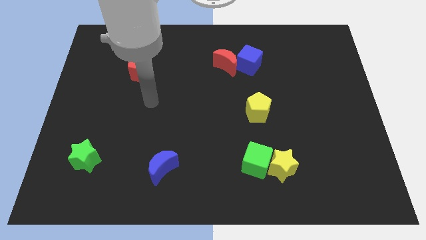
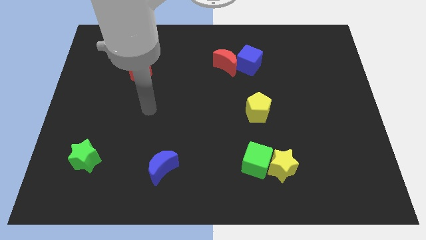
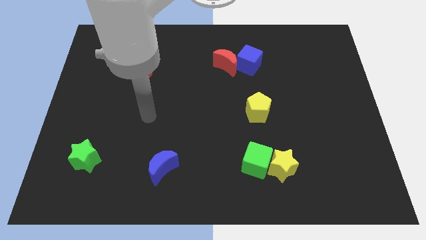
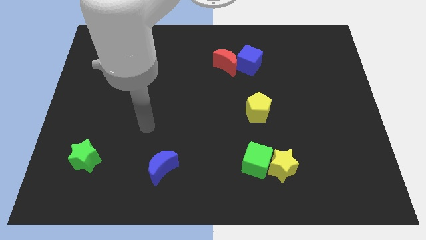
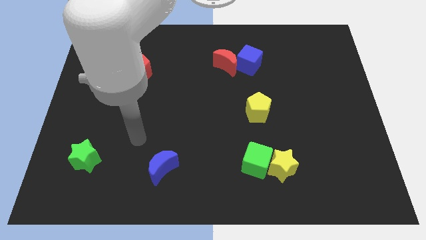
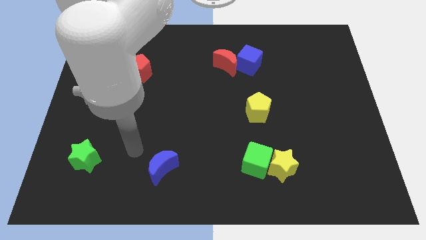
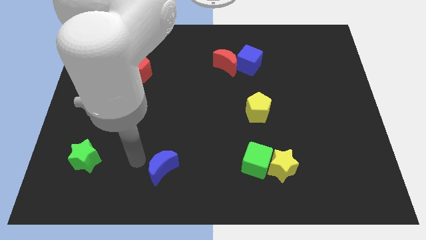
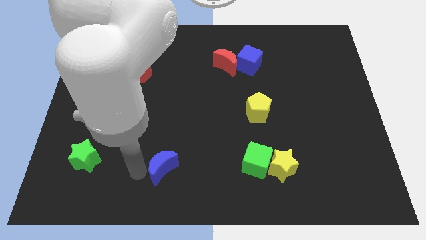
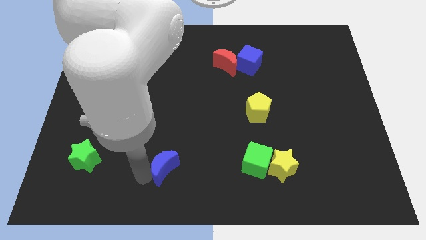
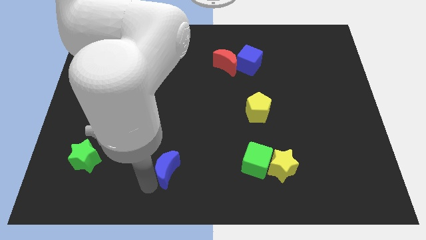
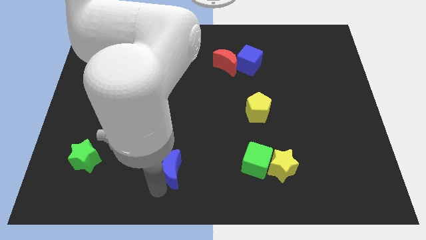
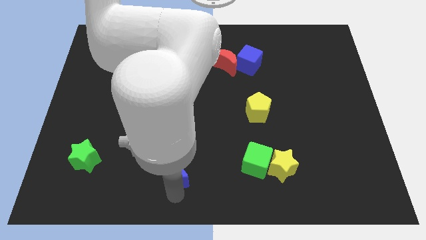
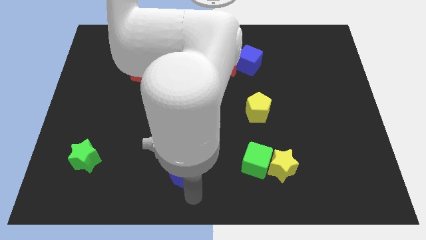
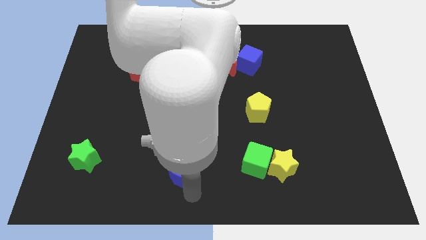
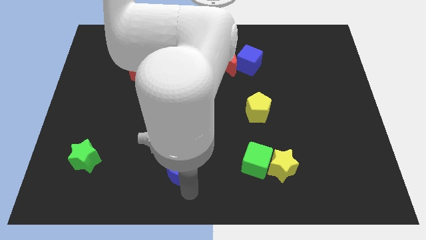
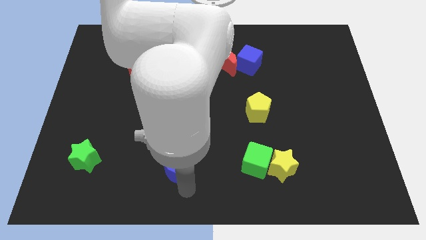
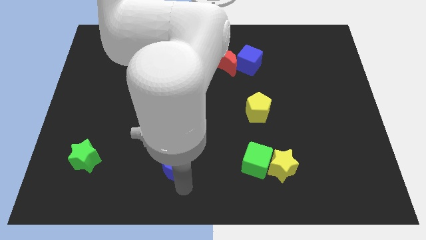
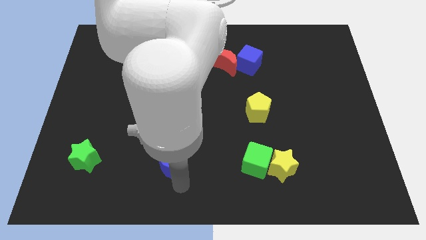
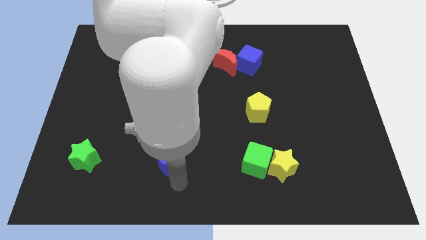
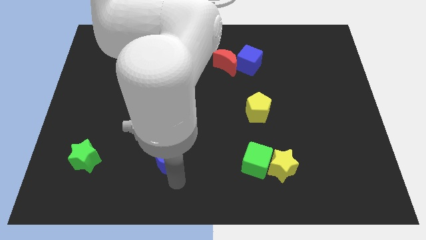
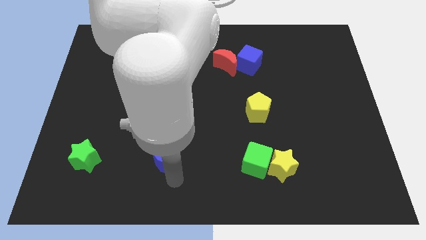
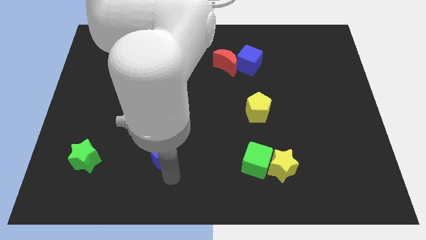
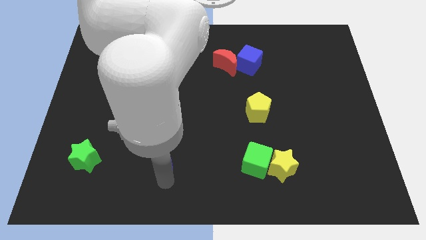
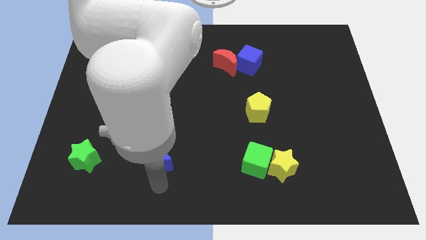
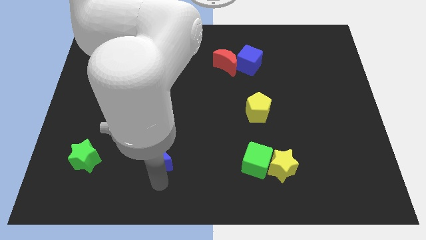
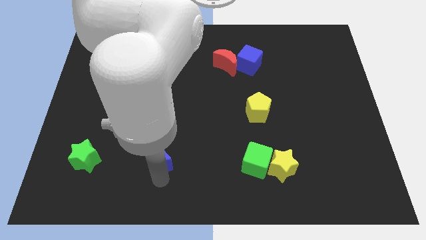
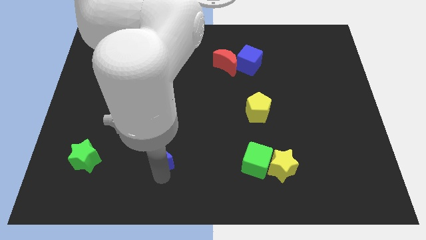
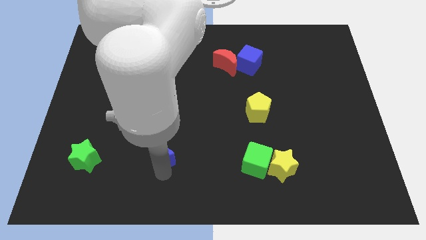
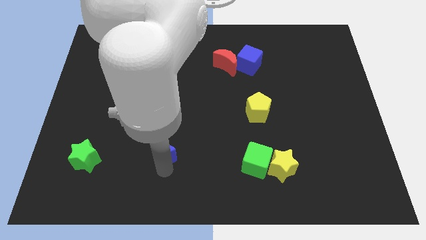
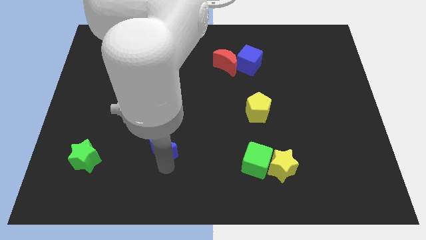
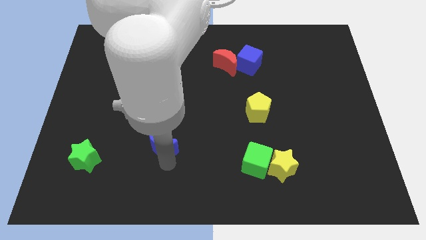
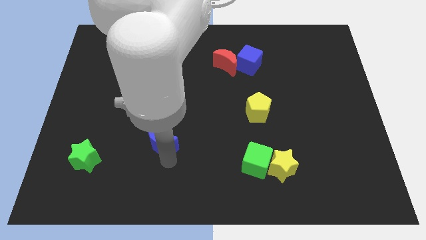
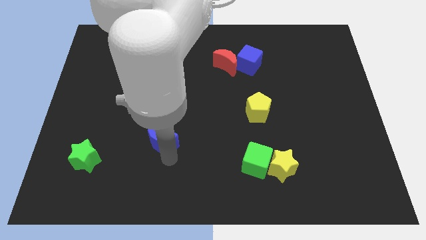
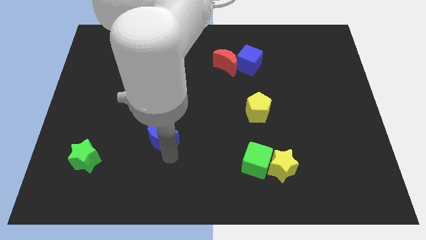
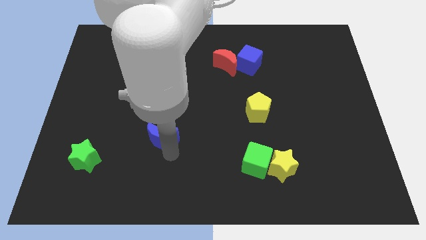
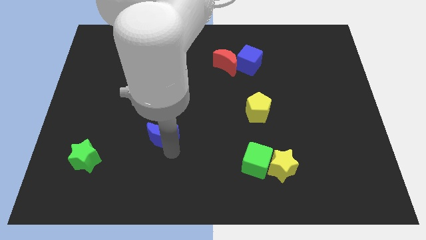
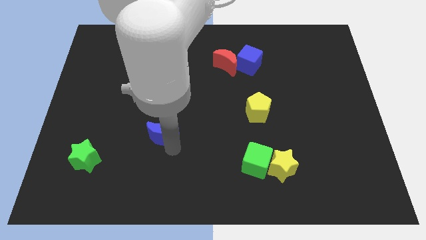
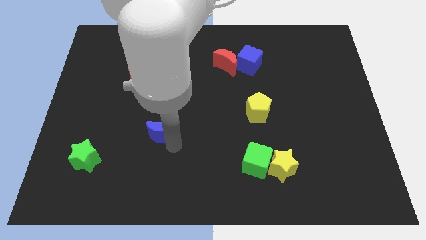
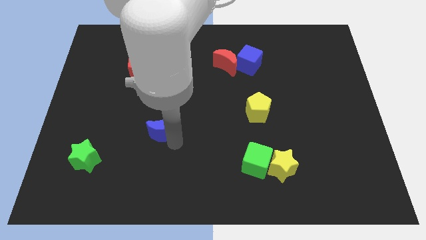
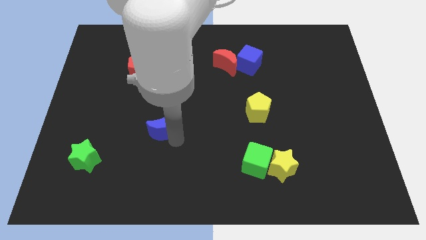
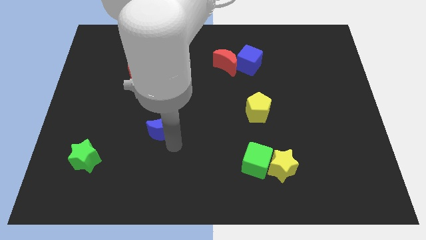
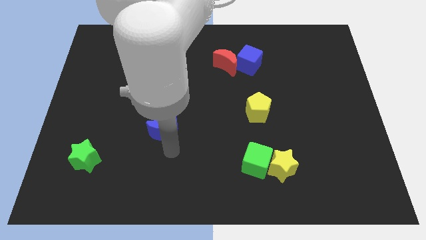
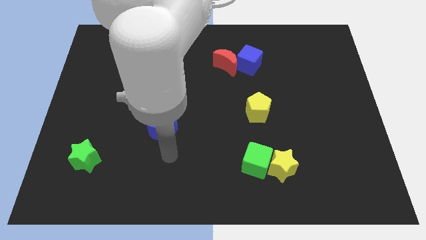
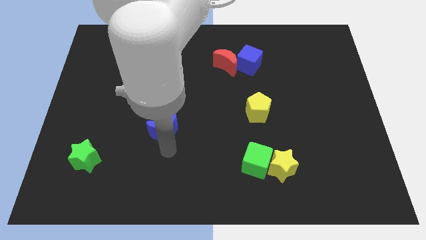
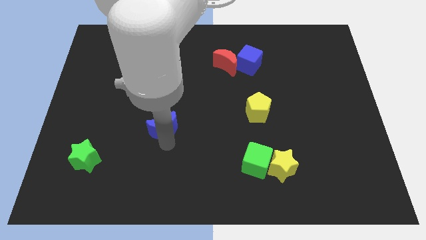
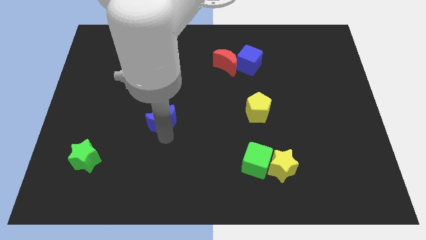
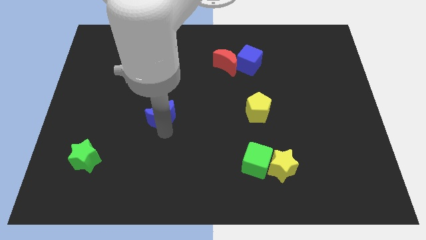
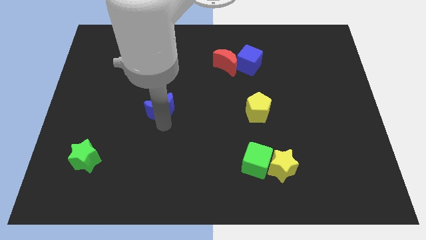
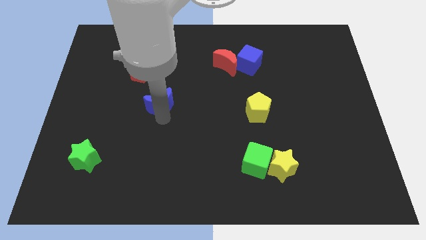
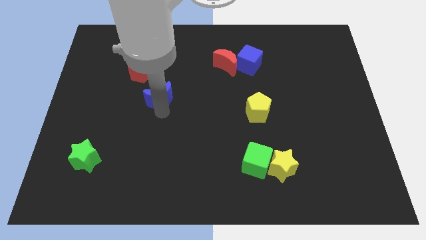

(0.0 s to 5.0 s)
put the blue moon to the bottom right side of the red pentagon

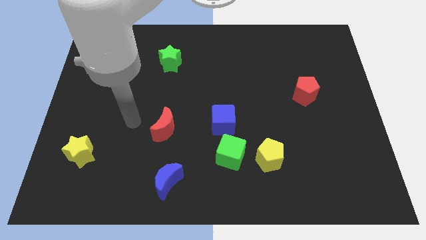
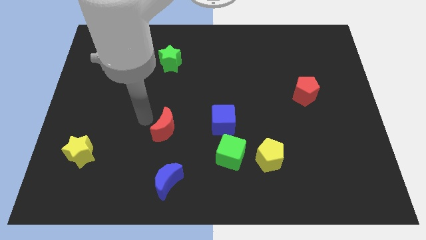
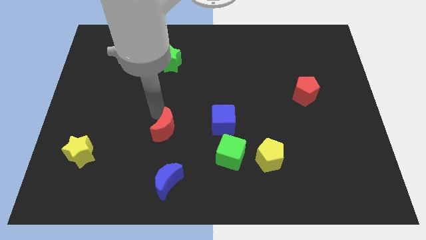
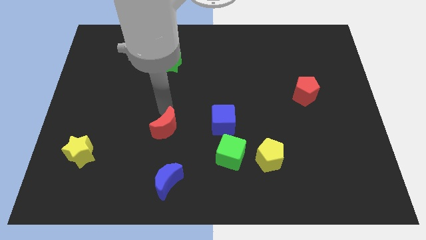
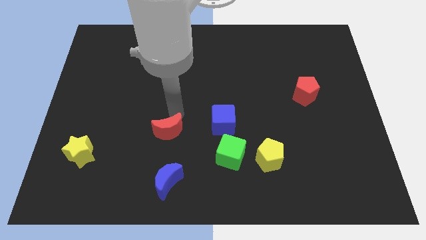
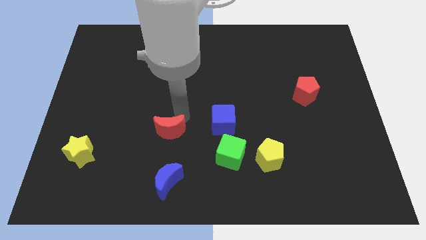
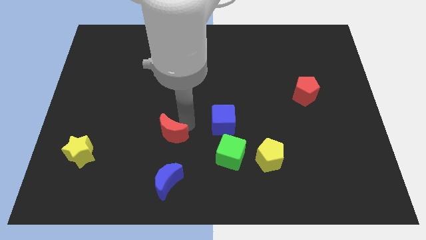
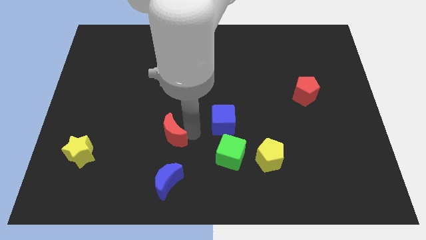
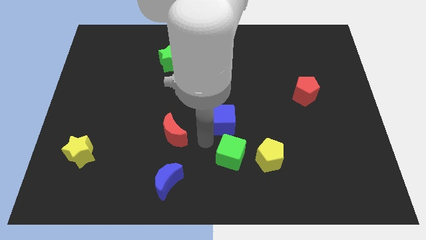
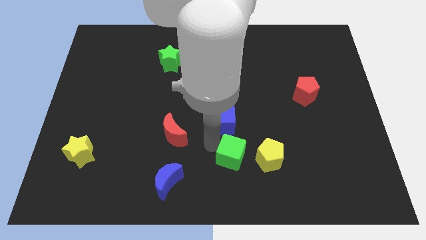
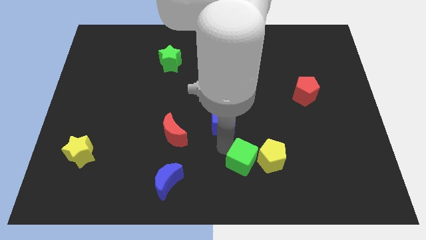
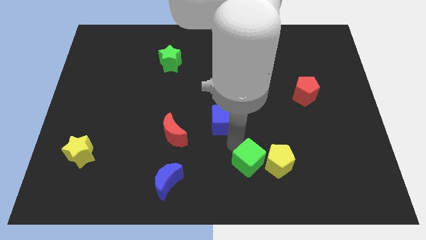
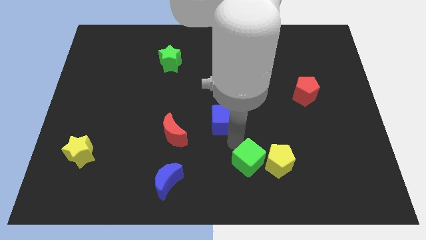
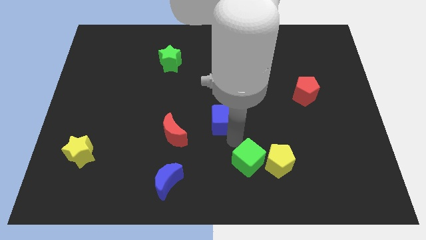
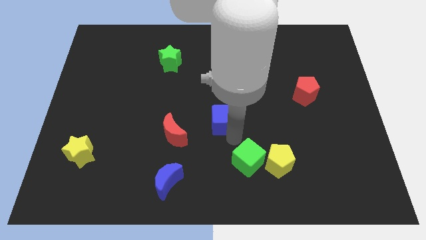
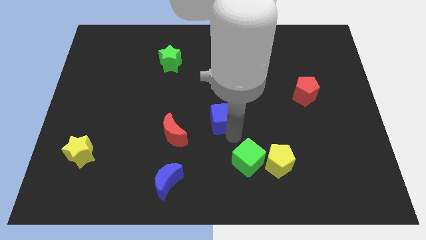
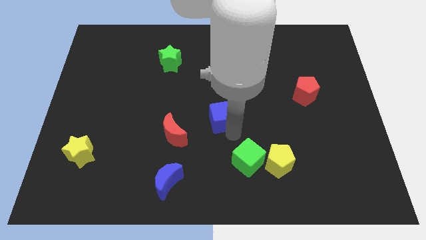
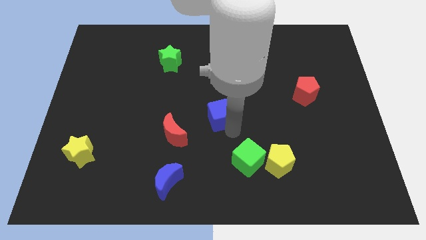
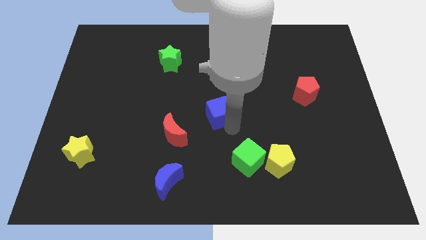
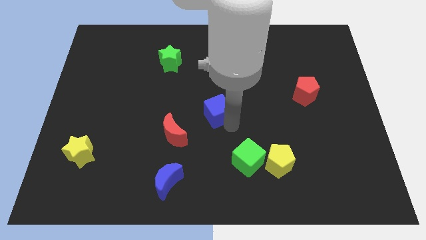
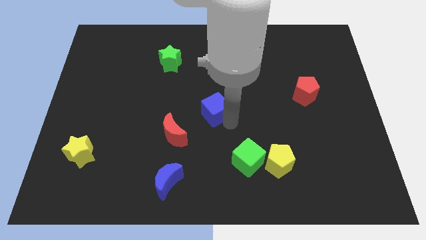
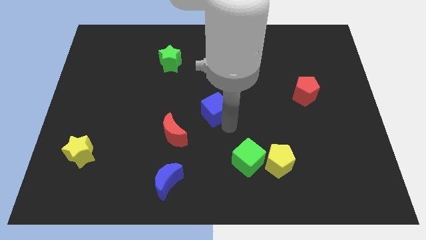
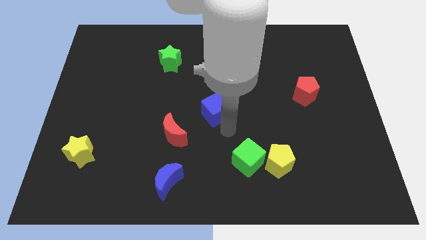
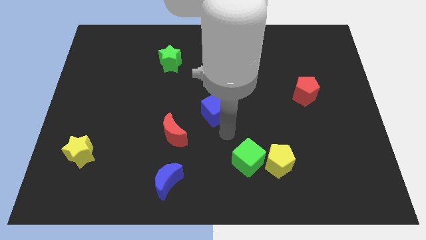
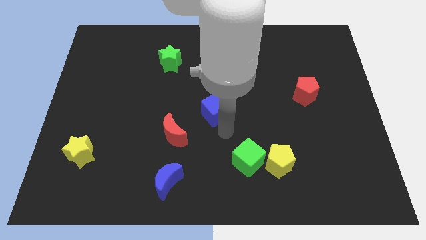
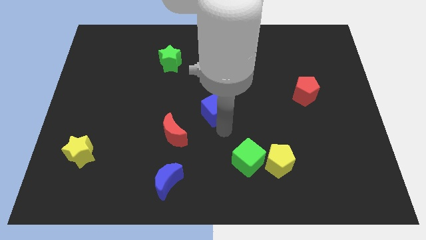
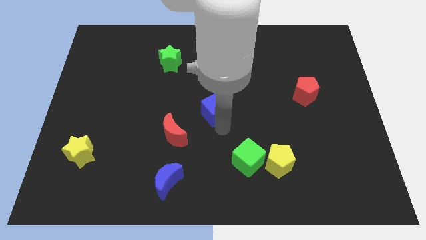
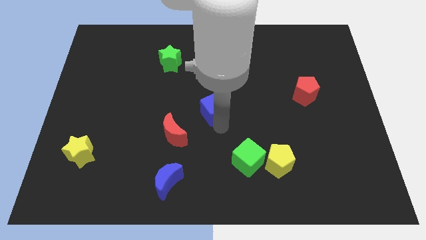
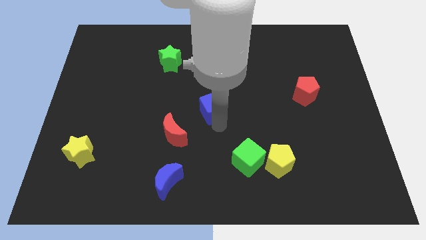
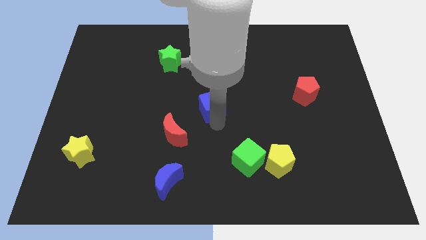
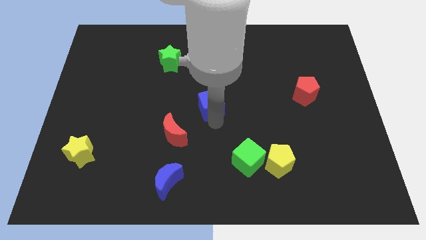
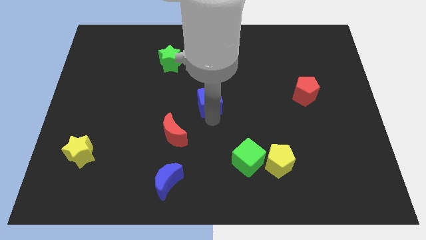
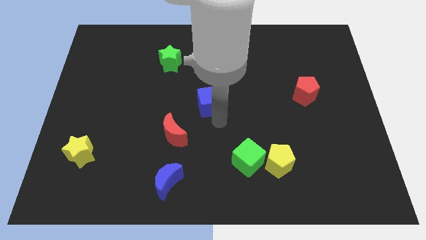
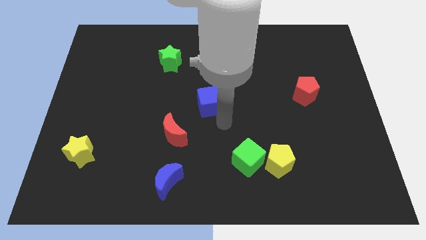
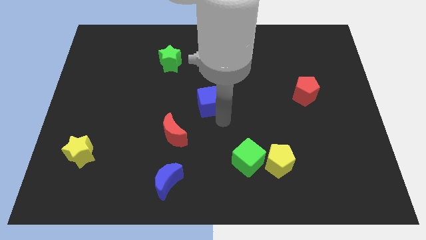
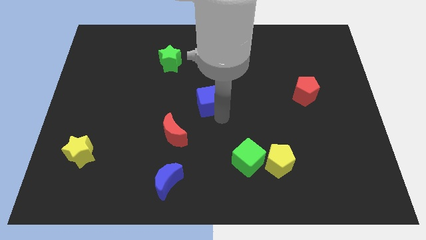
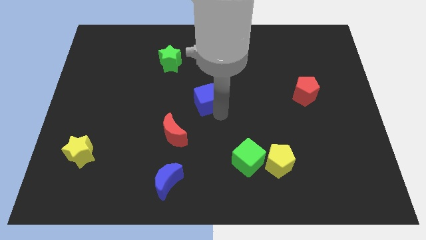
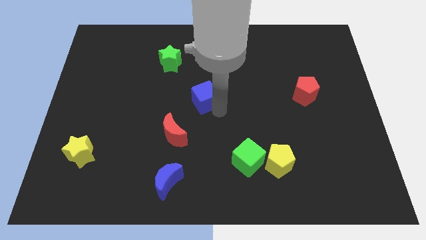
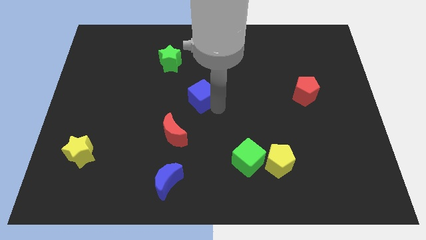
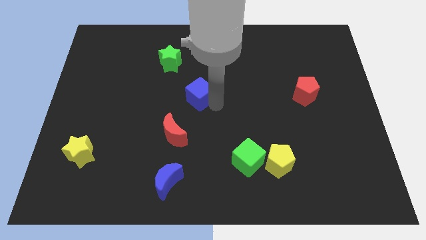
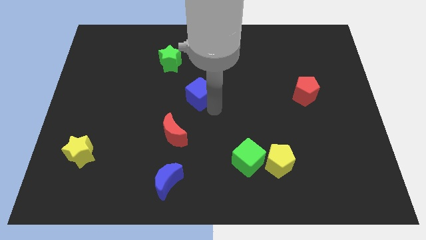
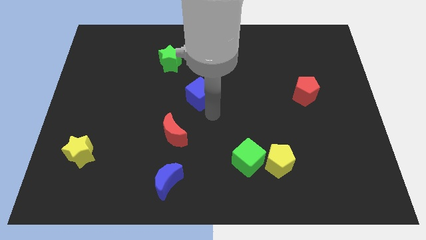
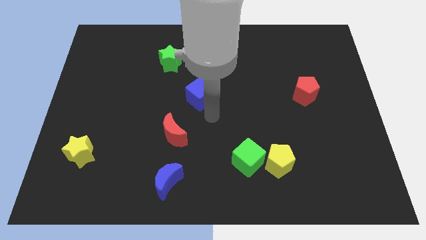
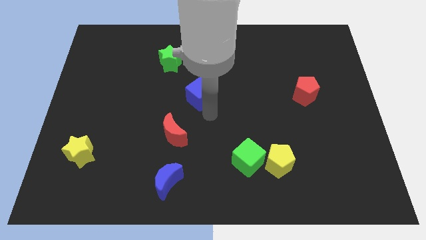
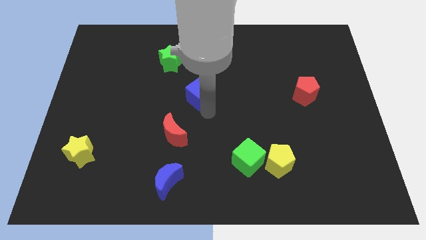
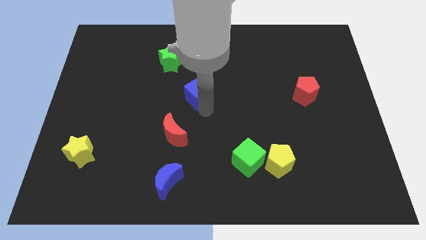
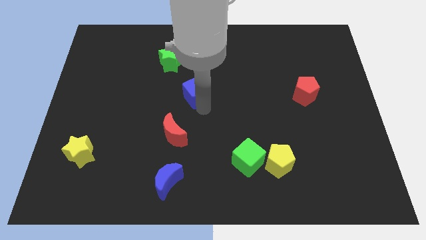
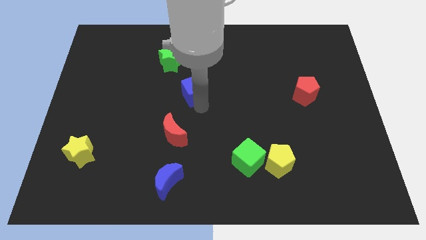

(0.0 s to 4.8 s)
slide the blue cube diagonally down and to the right of the green star
